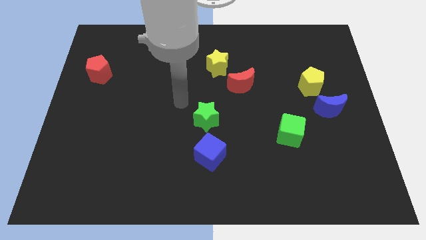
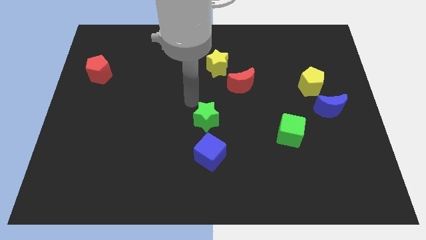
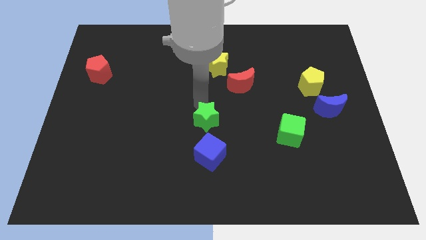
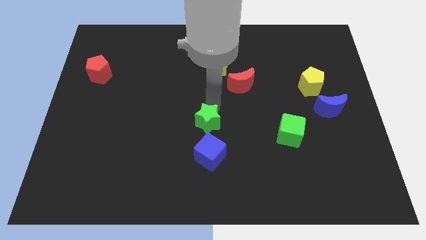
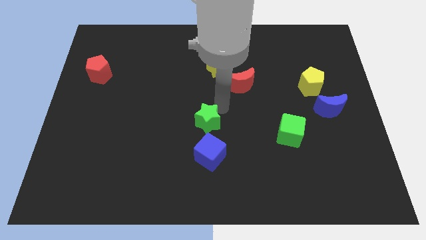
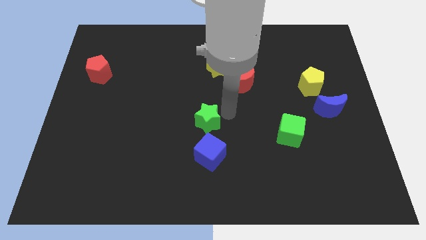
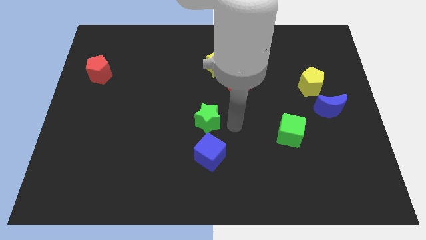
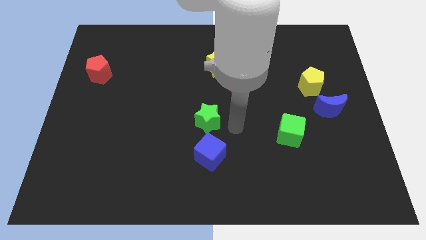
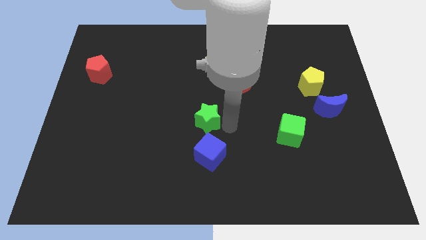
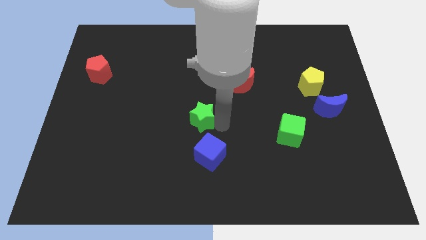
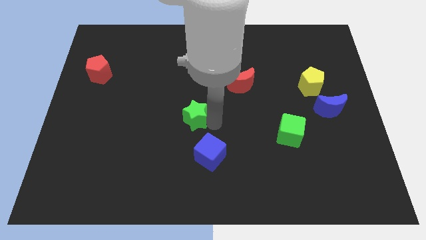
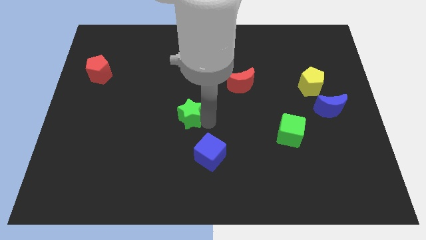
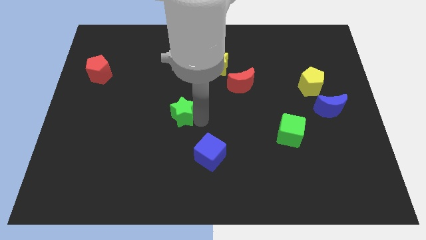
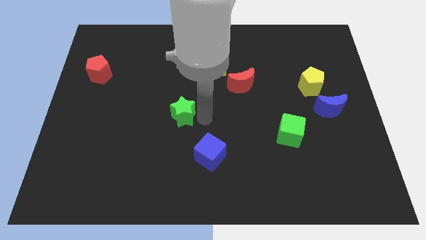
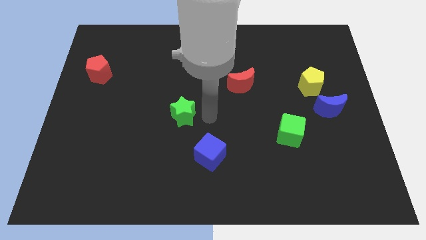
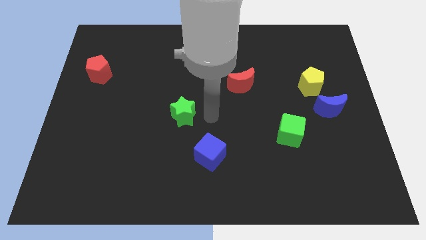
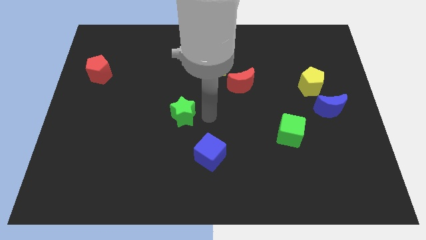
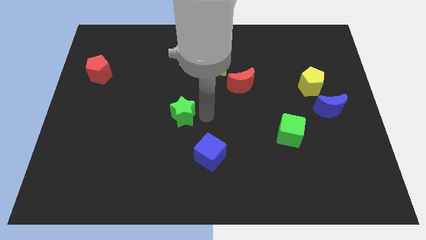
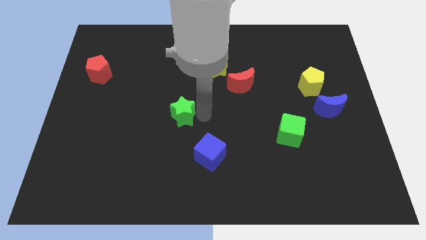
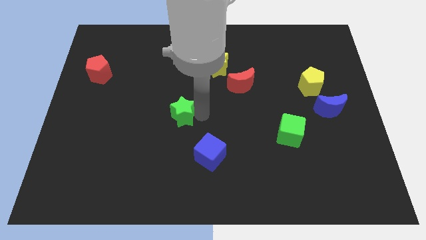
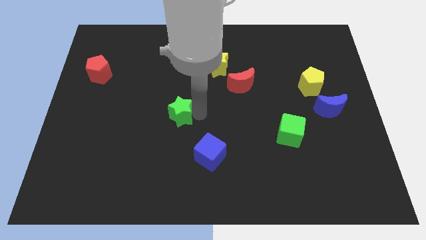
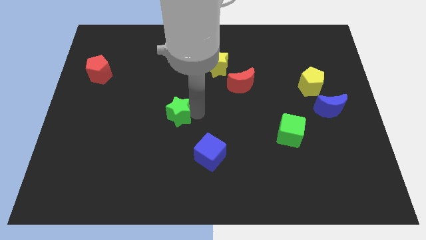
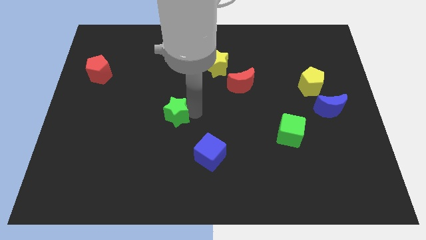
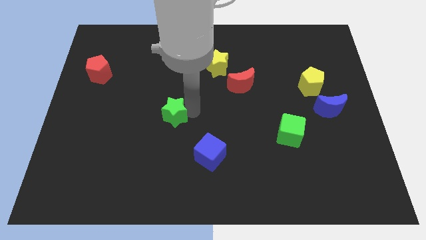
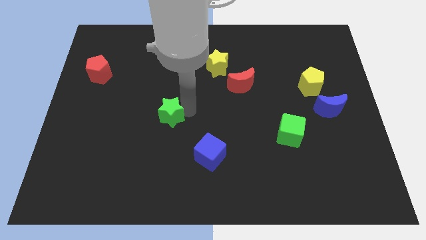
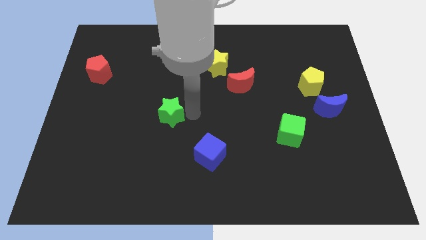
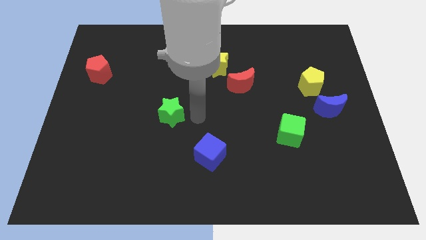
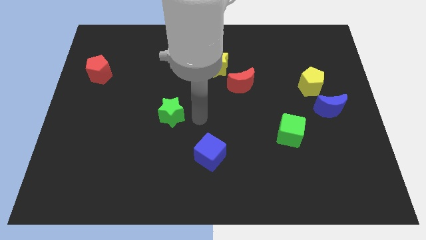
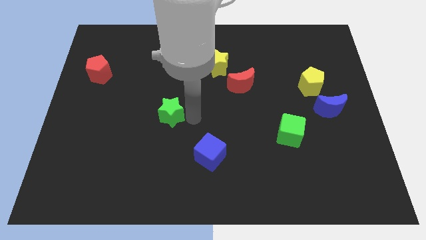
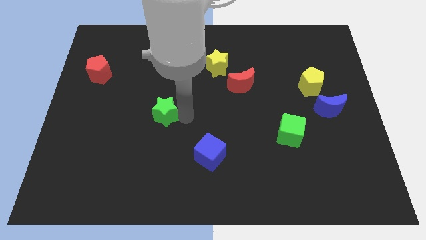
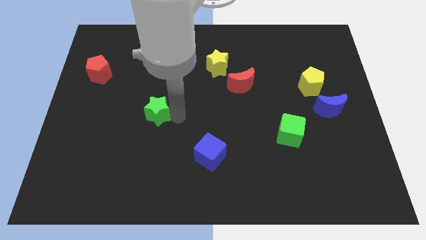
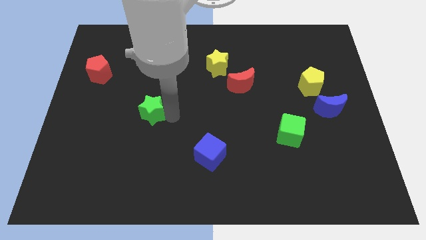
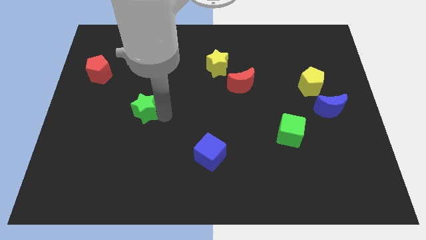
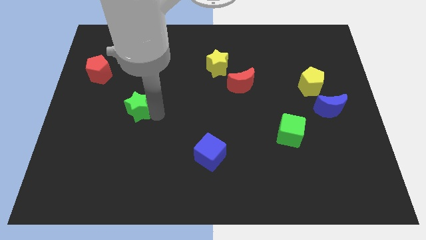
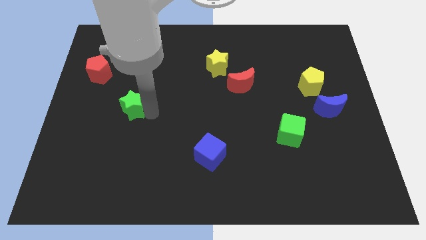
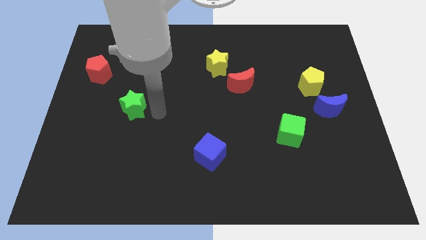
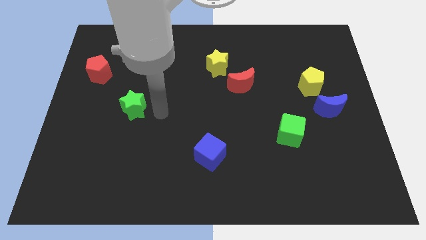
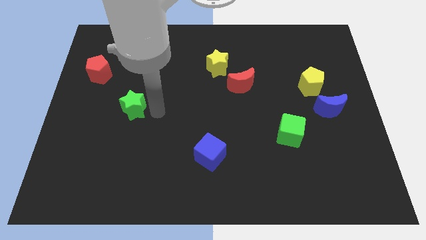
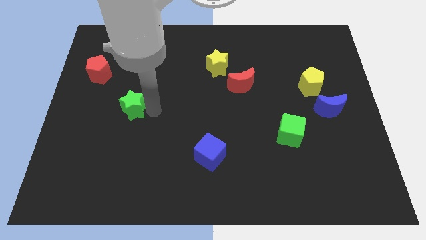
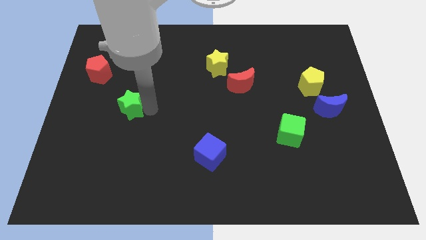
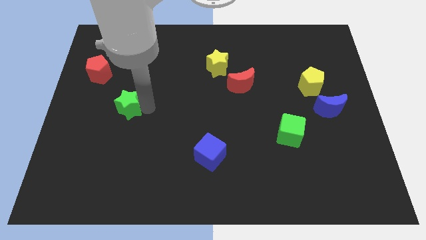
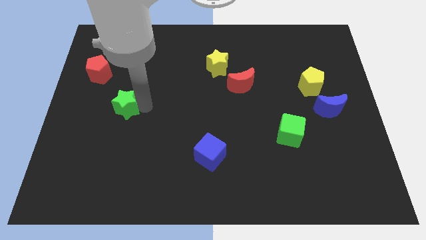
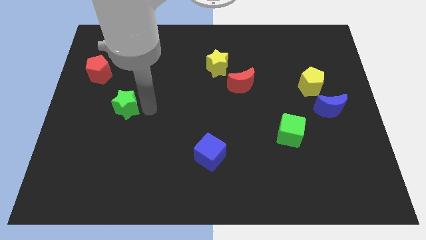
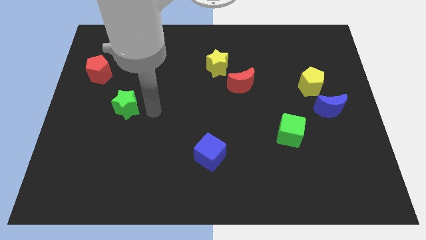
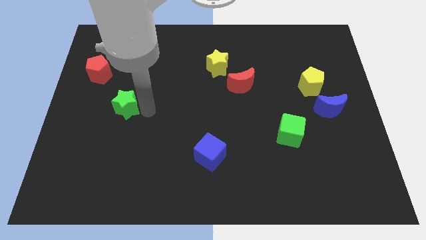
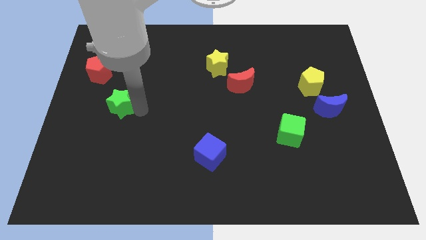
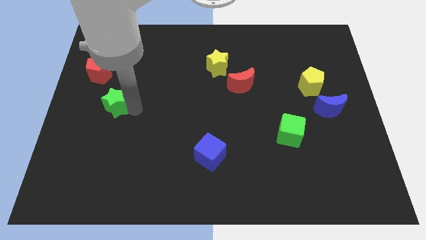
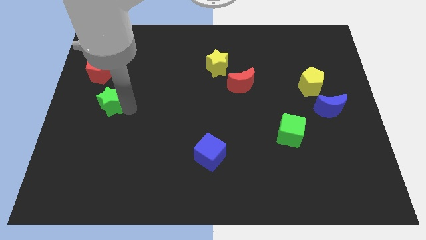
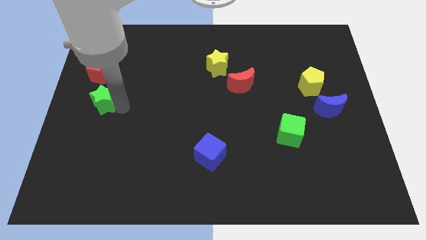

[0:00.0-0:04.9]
move the green star to the left side of the board

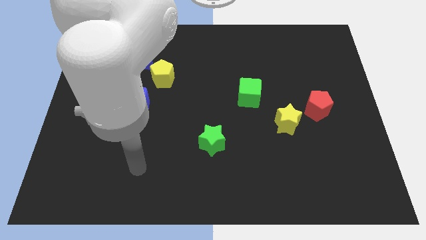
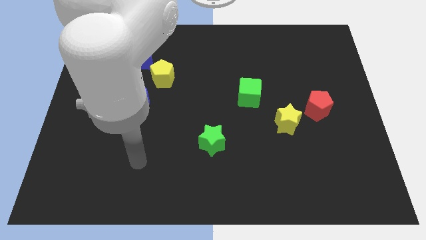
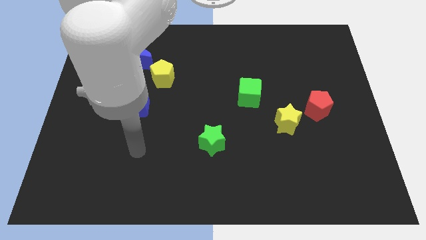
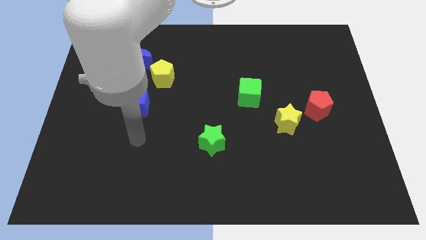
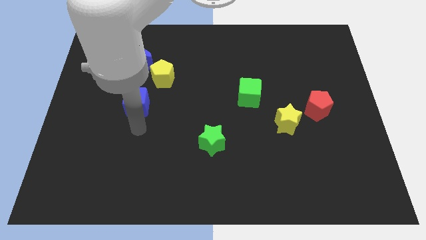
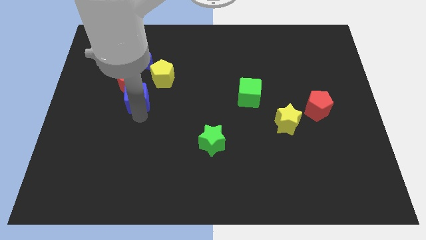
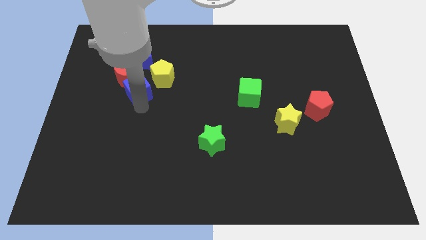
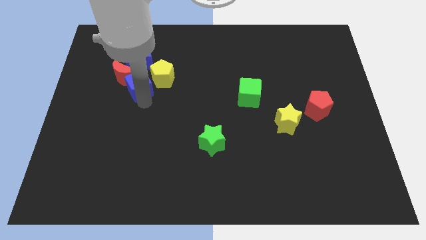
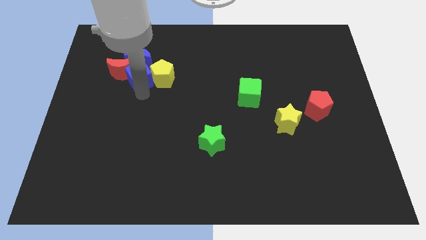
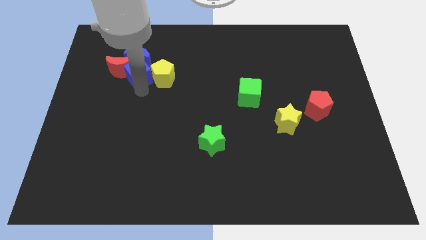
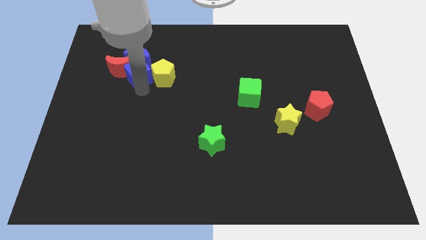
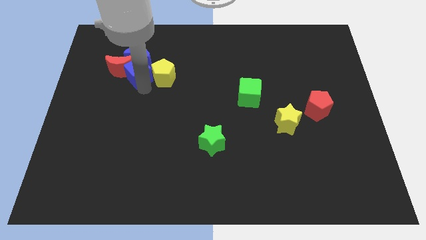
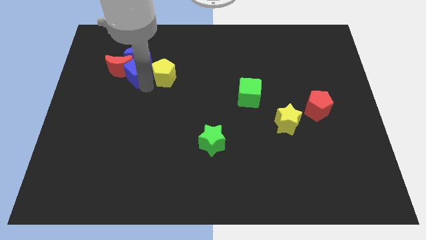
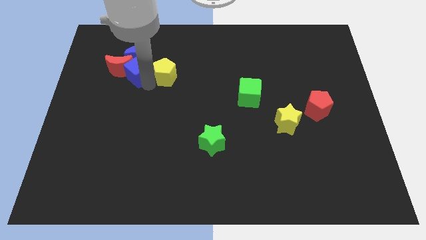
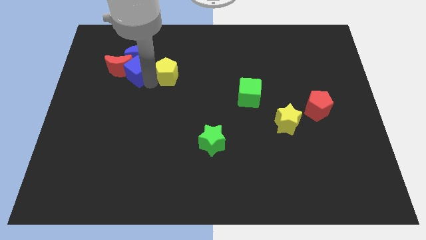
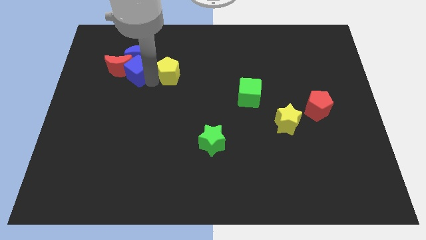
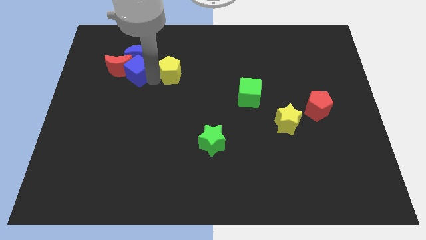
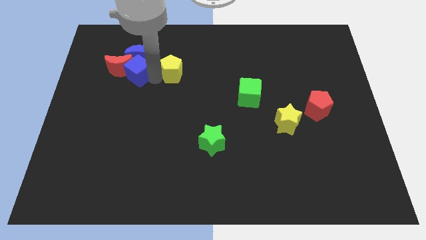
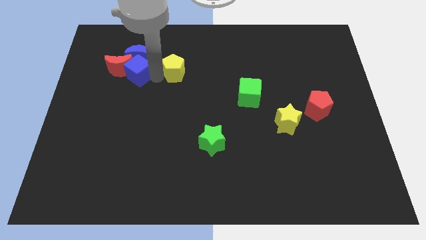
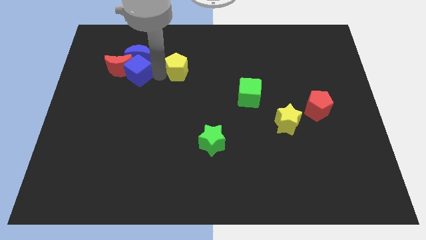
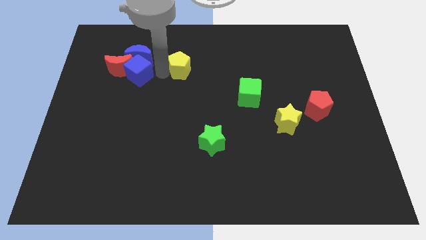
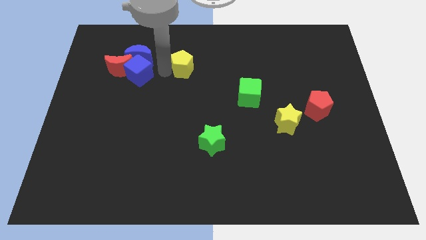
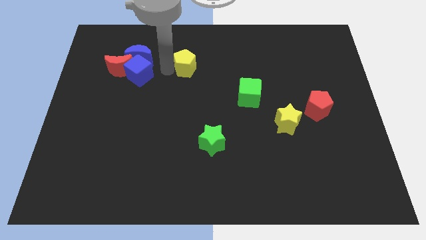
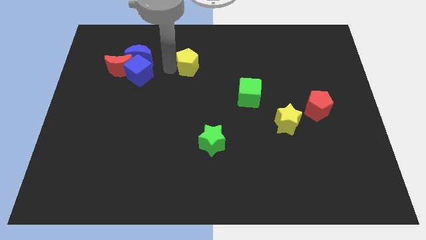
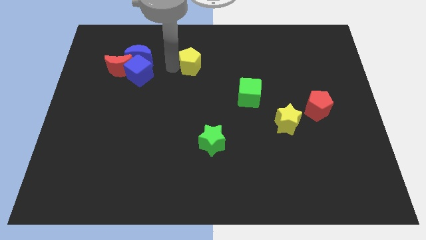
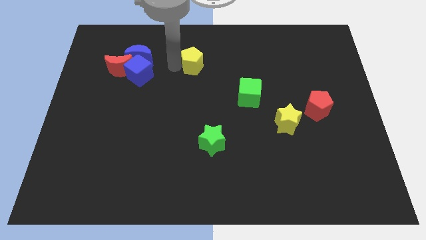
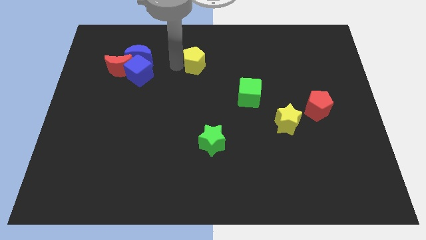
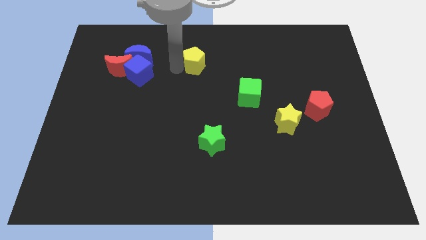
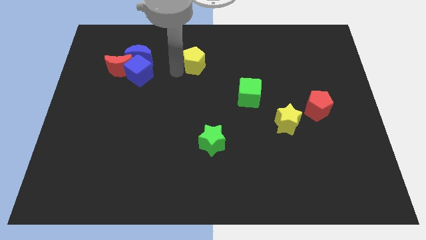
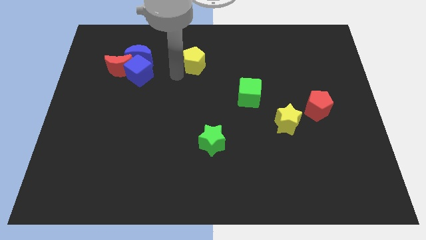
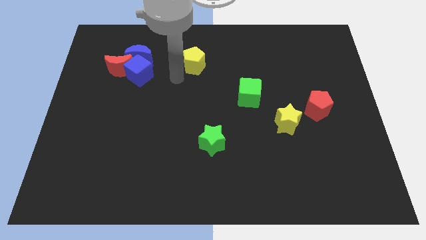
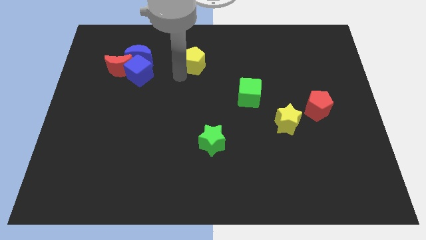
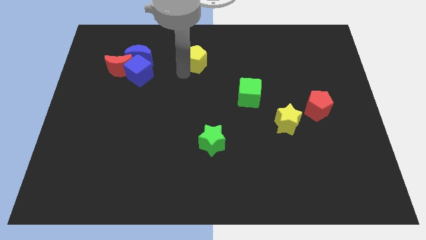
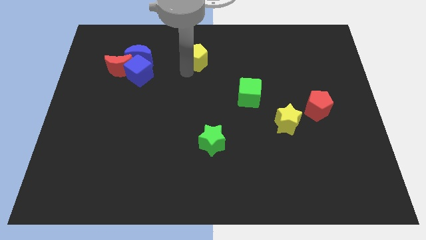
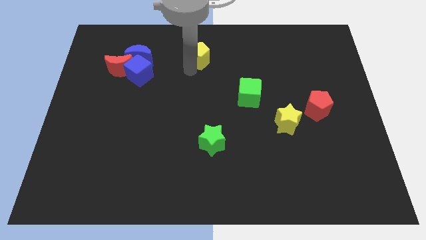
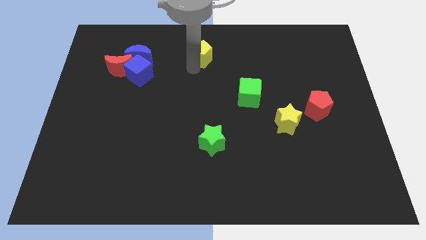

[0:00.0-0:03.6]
push the yellow pentagon to the towards your base

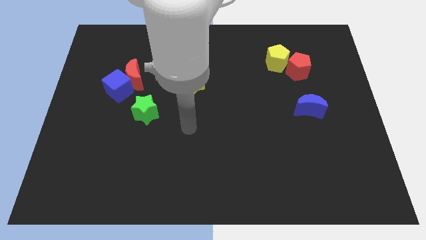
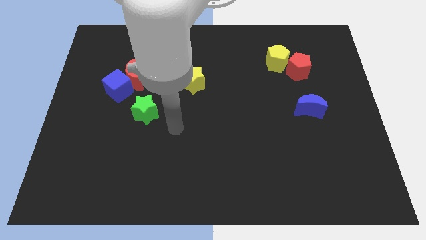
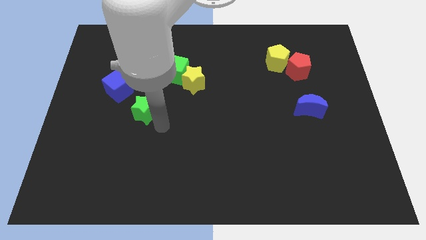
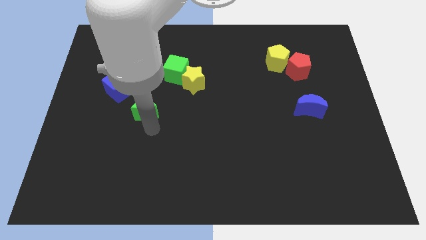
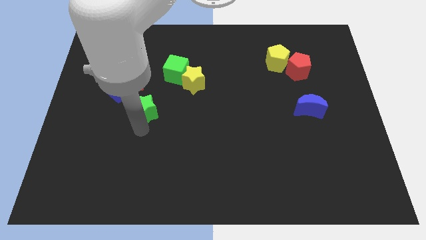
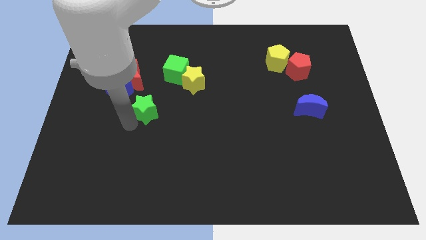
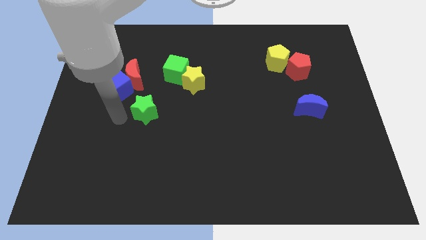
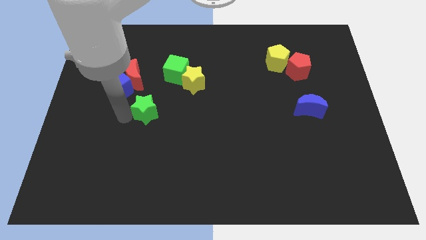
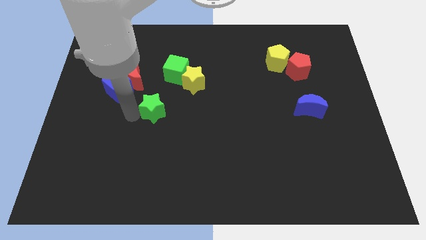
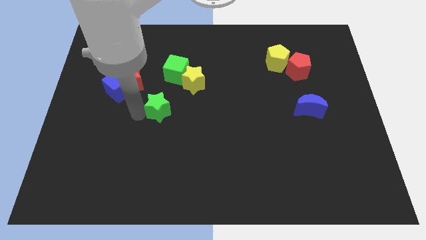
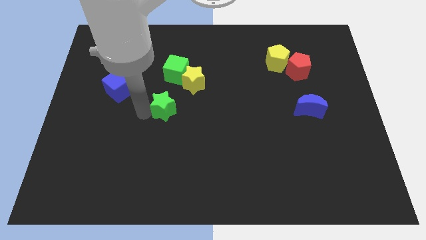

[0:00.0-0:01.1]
push the green star to the middle of the board
